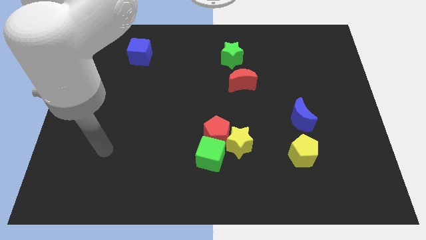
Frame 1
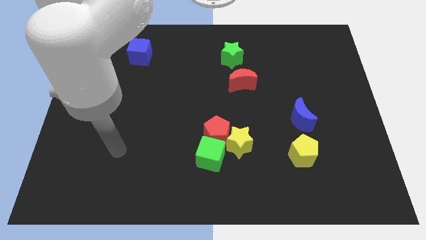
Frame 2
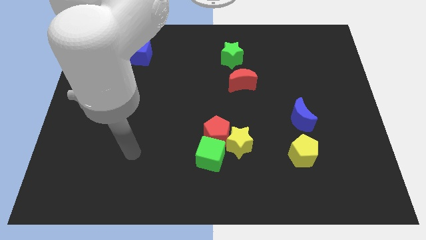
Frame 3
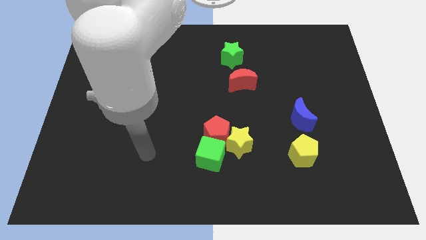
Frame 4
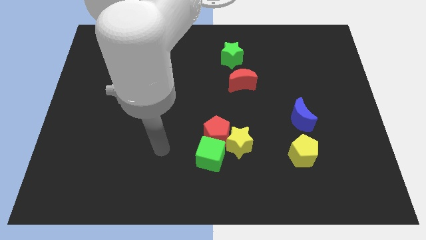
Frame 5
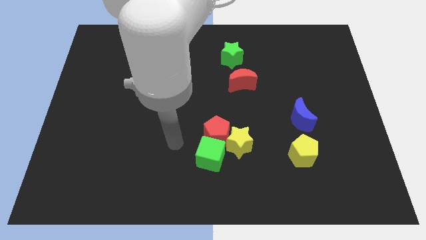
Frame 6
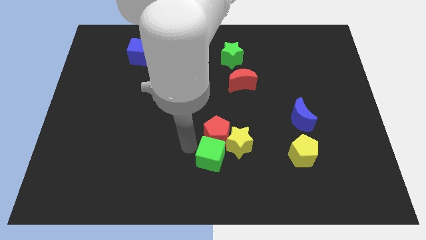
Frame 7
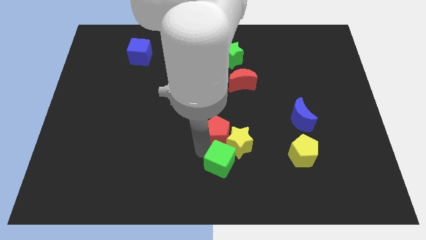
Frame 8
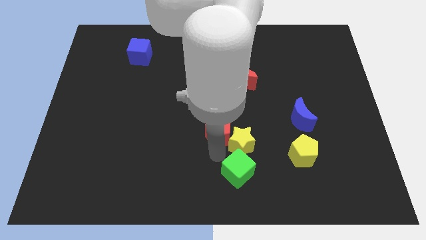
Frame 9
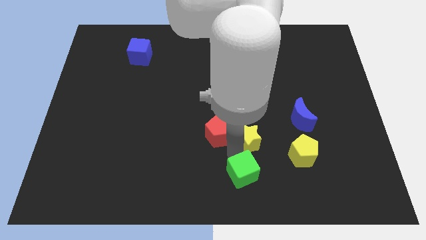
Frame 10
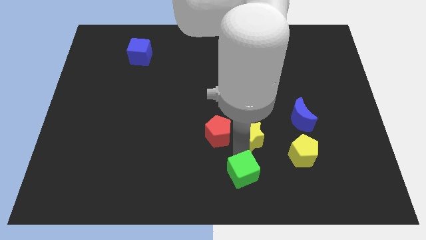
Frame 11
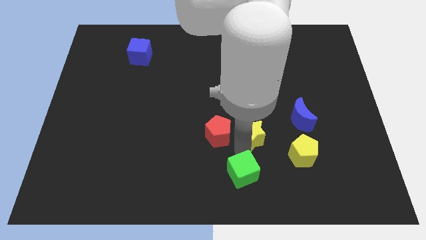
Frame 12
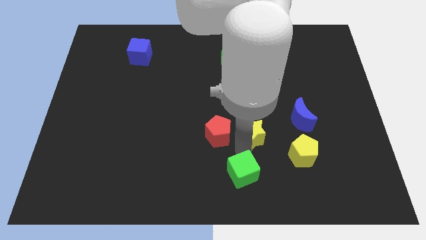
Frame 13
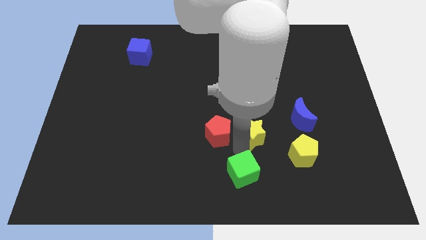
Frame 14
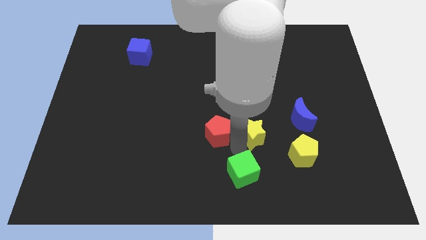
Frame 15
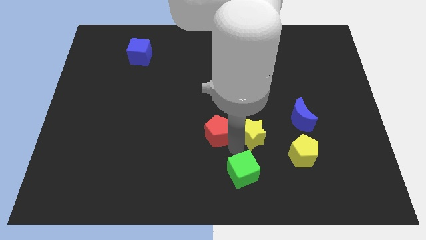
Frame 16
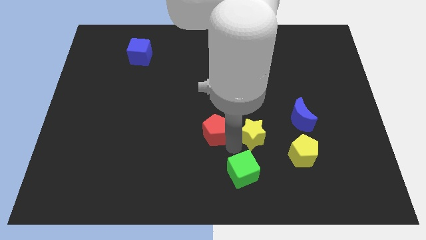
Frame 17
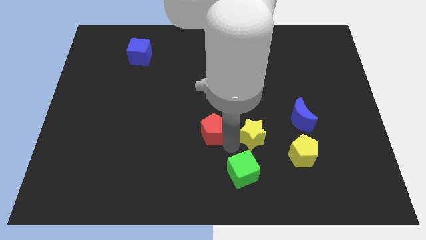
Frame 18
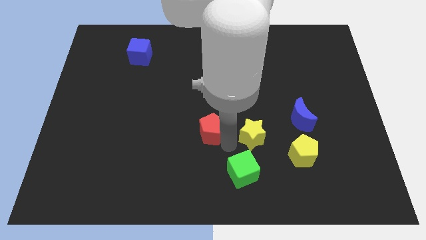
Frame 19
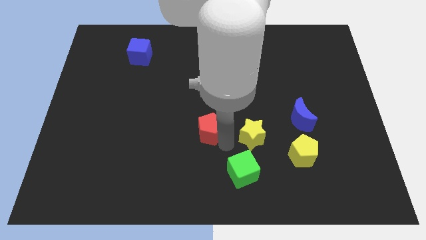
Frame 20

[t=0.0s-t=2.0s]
pull the red pentagon apart from the yellow star and green cube

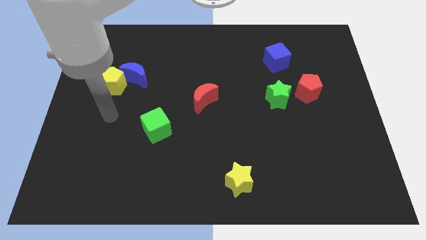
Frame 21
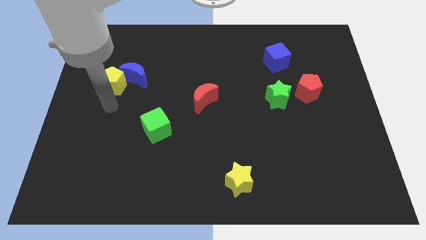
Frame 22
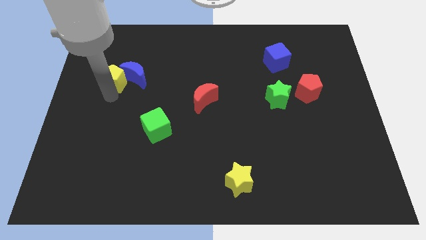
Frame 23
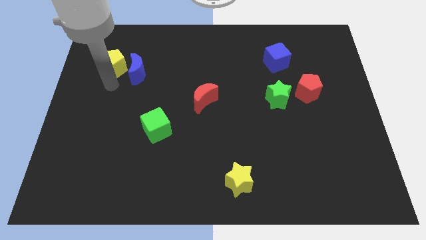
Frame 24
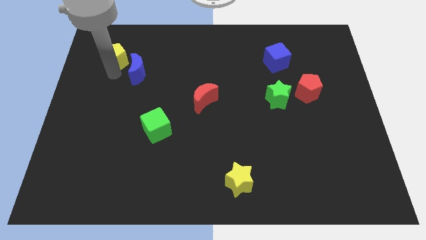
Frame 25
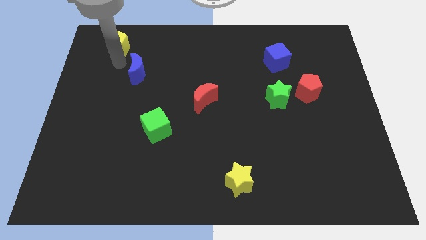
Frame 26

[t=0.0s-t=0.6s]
separate the blue moon from the yellow pentagon

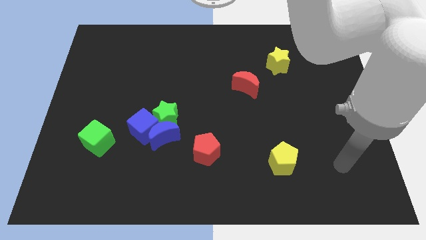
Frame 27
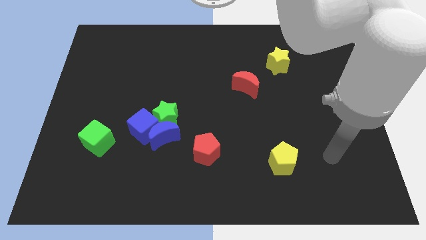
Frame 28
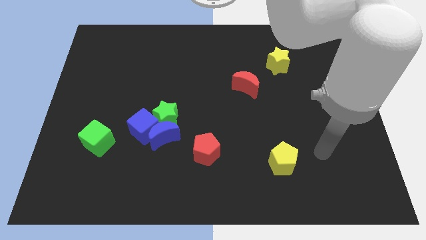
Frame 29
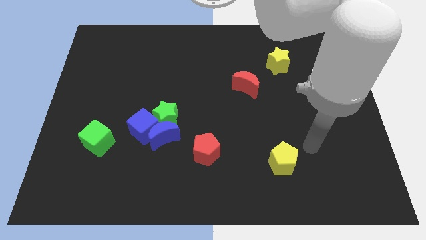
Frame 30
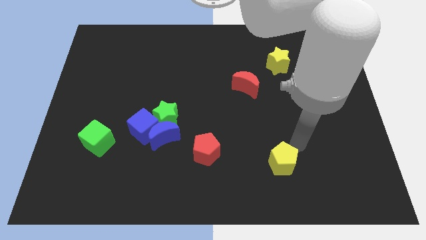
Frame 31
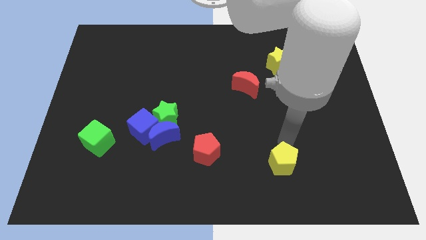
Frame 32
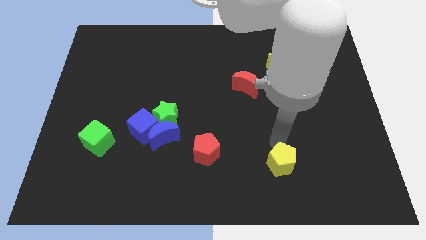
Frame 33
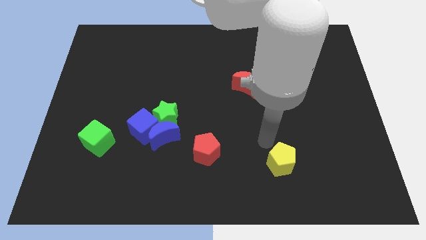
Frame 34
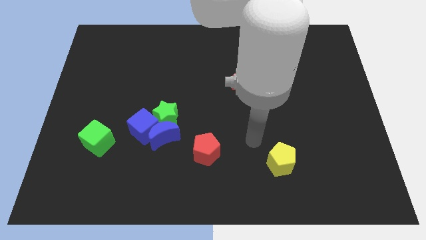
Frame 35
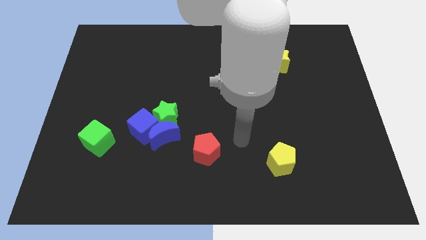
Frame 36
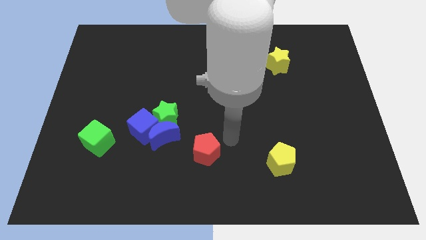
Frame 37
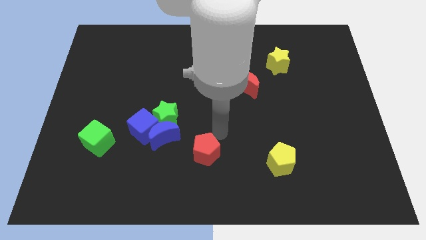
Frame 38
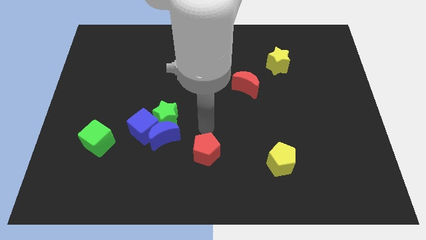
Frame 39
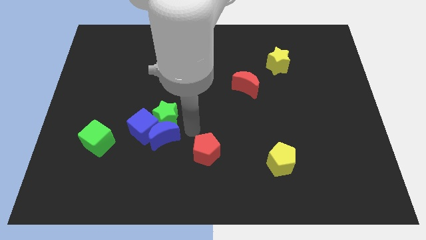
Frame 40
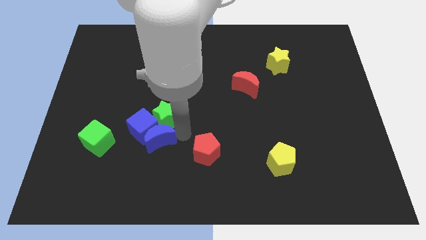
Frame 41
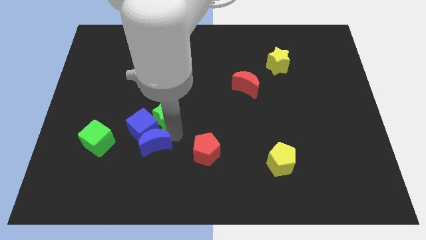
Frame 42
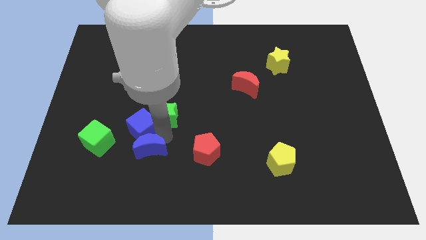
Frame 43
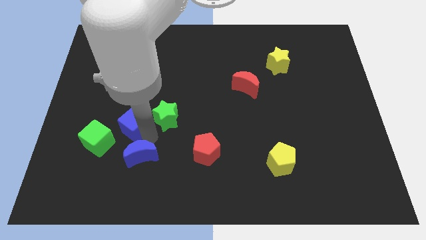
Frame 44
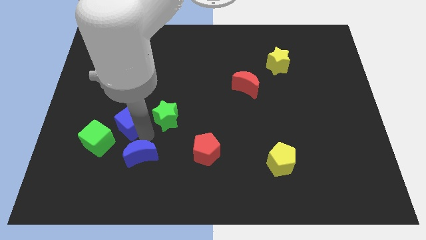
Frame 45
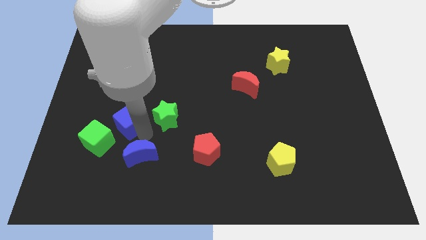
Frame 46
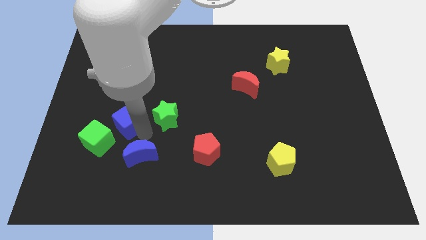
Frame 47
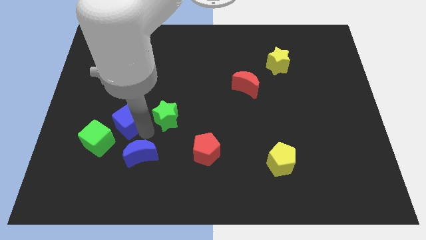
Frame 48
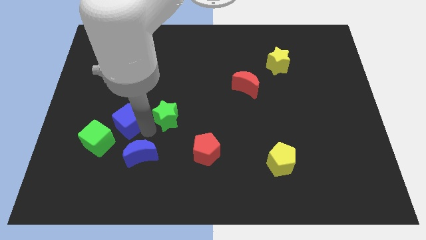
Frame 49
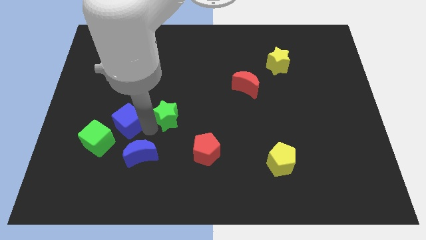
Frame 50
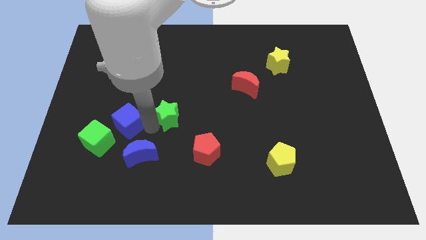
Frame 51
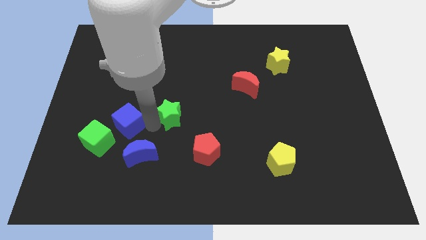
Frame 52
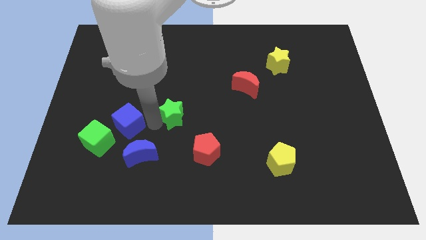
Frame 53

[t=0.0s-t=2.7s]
move the green star away from the blue moon and blue cube

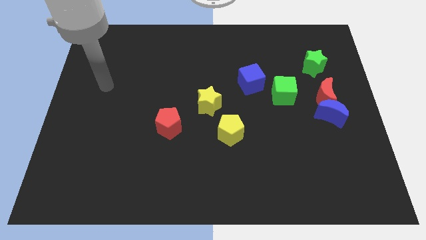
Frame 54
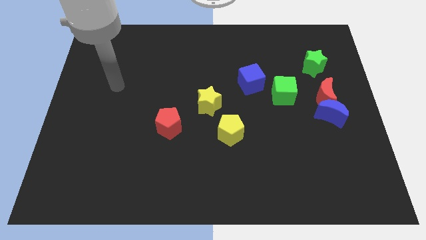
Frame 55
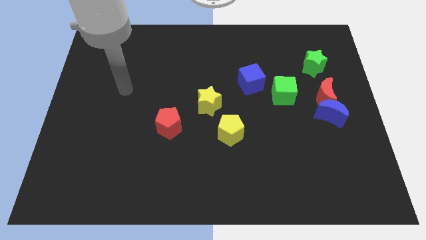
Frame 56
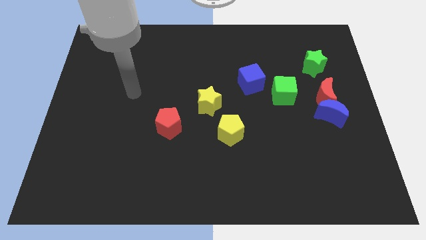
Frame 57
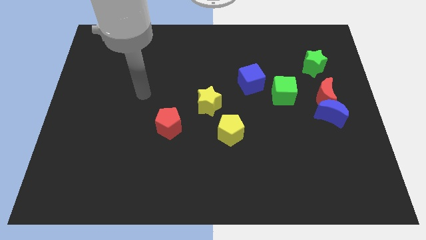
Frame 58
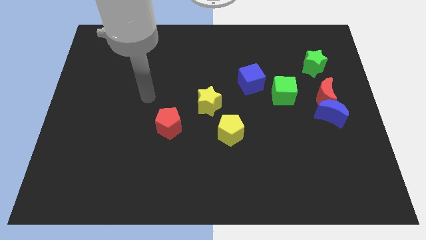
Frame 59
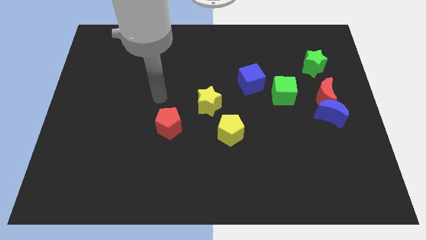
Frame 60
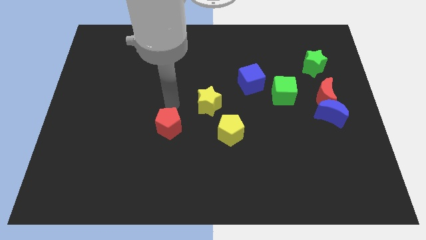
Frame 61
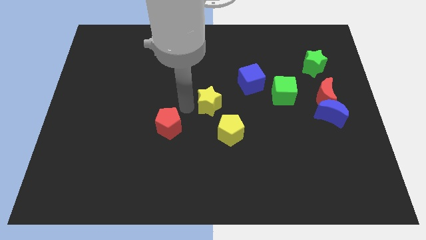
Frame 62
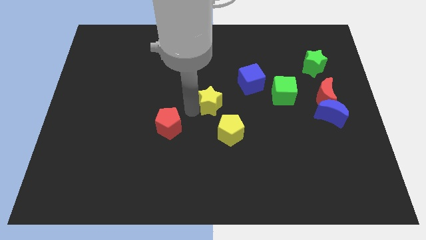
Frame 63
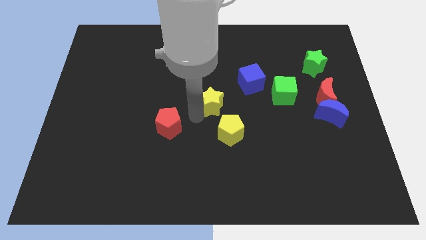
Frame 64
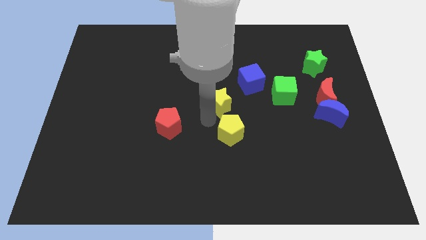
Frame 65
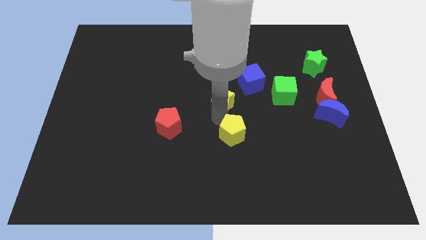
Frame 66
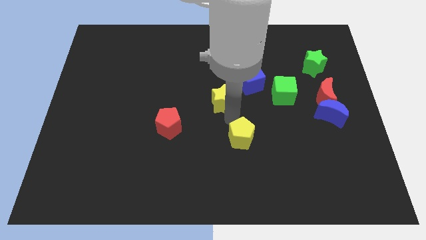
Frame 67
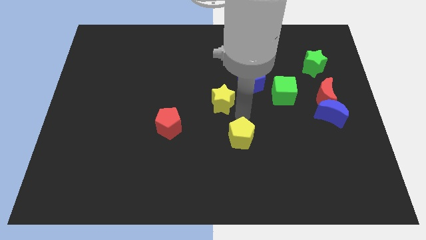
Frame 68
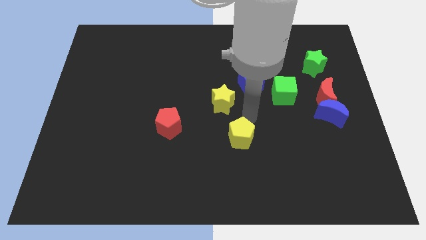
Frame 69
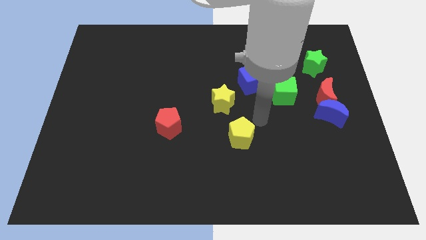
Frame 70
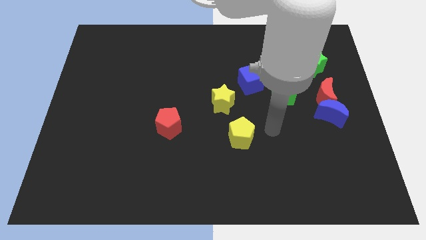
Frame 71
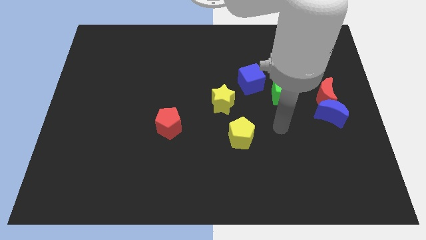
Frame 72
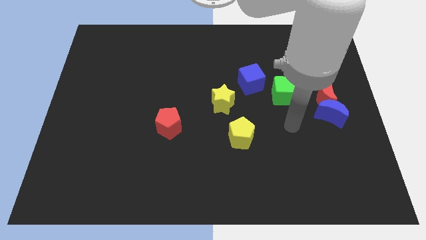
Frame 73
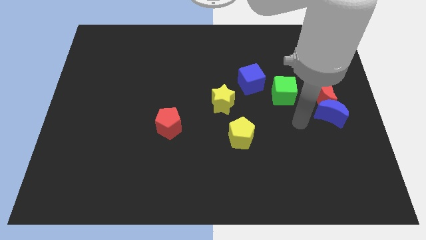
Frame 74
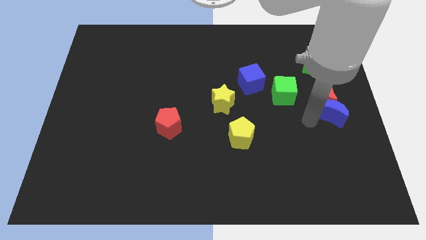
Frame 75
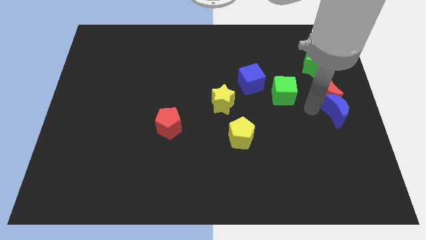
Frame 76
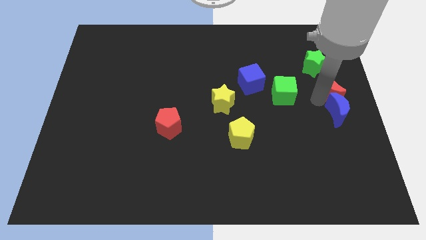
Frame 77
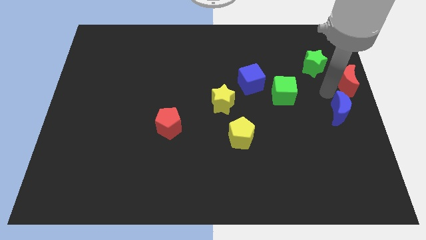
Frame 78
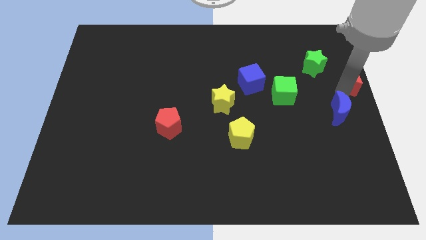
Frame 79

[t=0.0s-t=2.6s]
pull the blue moon apart from the red moon

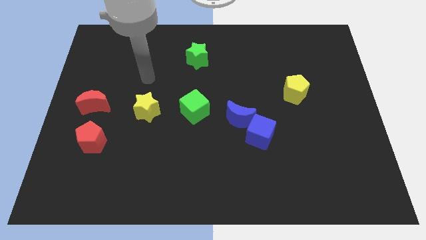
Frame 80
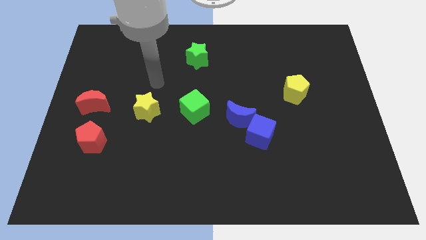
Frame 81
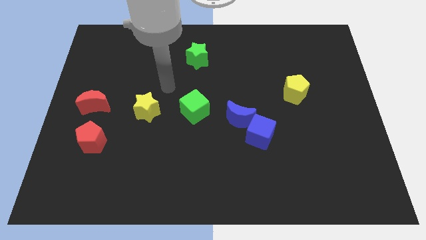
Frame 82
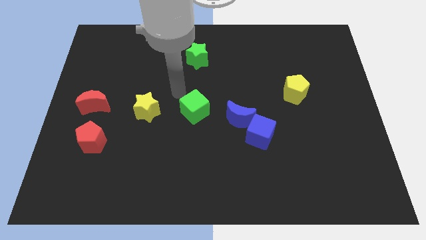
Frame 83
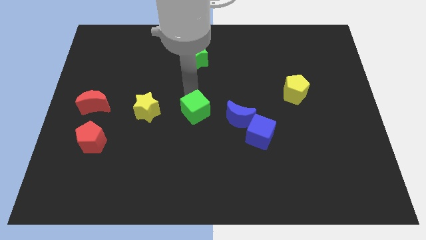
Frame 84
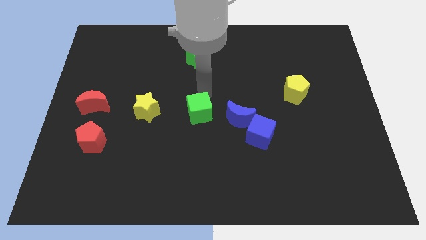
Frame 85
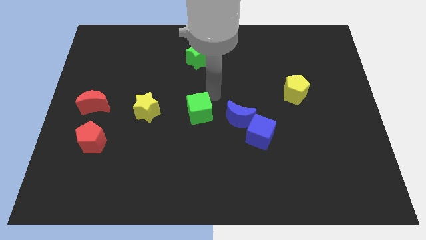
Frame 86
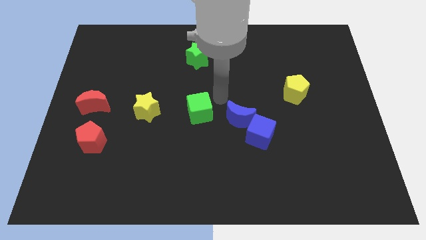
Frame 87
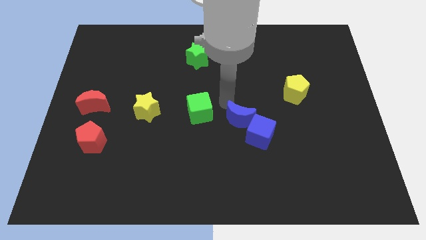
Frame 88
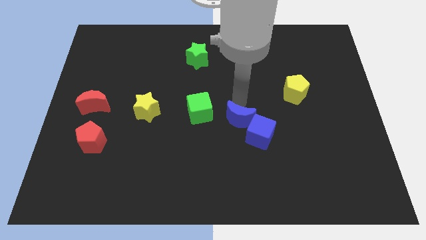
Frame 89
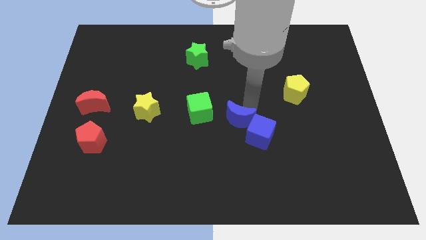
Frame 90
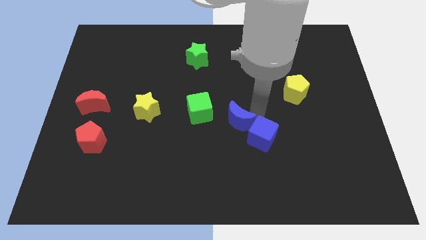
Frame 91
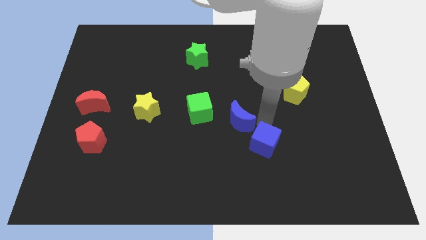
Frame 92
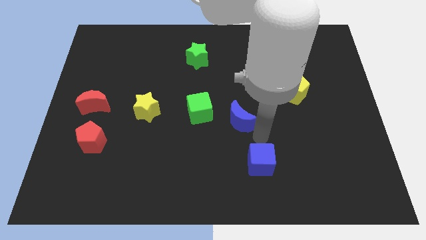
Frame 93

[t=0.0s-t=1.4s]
separate the blue moon from the blue cube
